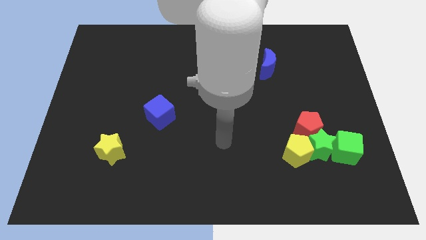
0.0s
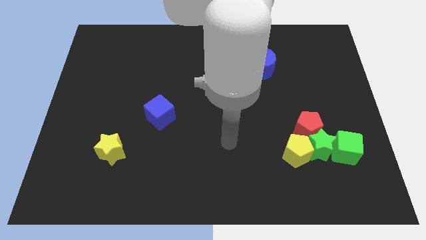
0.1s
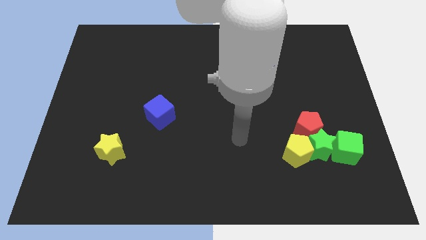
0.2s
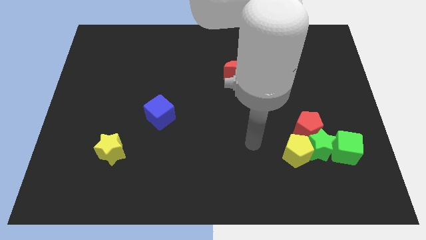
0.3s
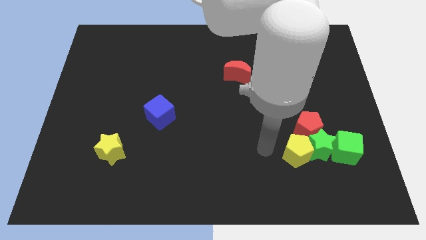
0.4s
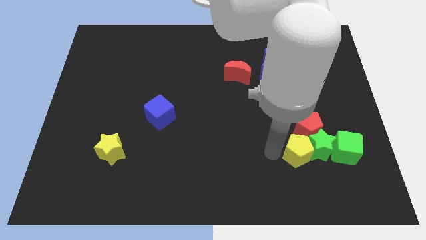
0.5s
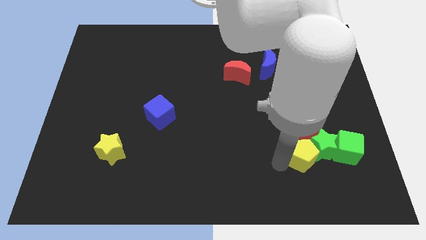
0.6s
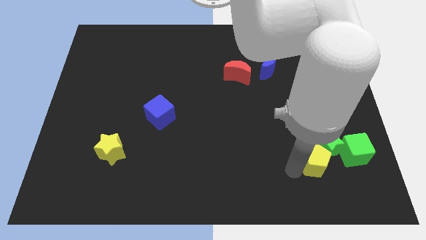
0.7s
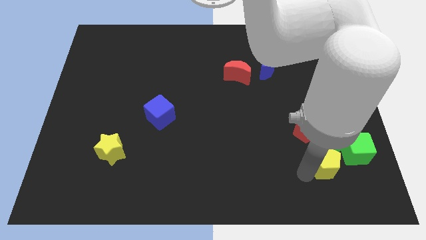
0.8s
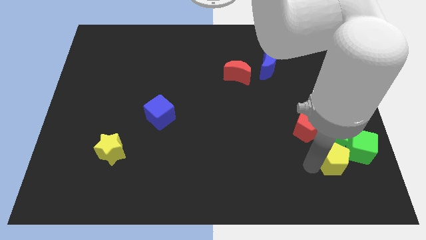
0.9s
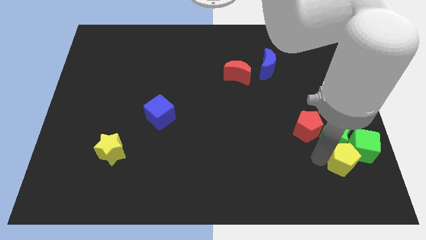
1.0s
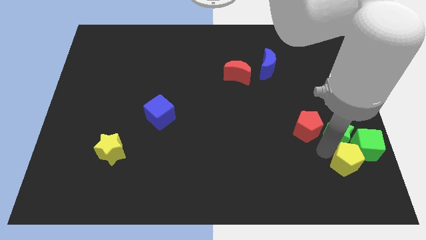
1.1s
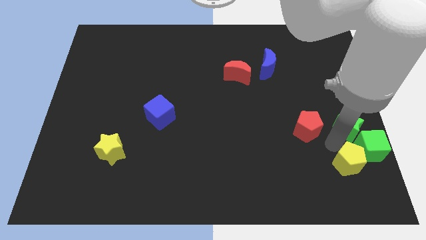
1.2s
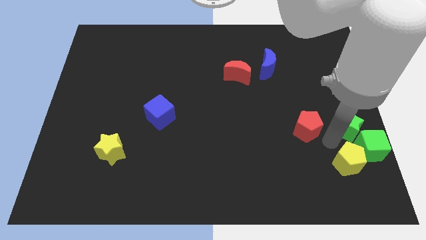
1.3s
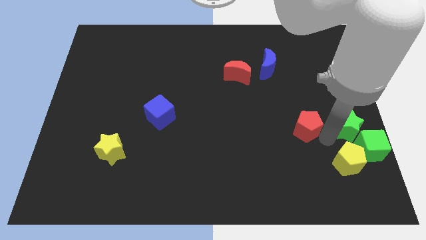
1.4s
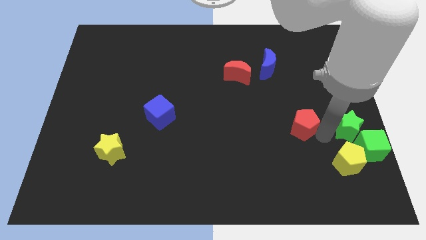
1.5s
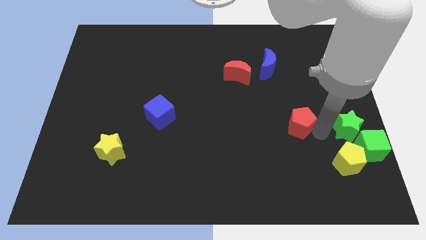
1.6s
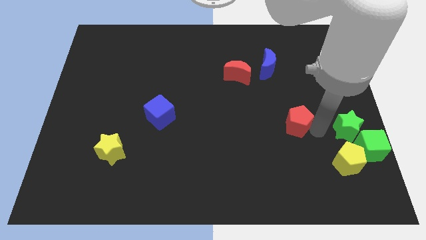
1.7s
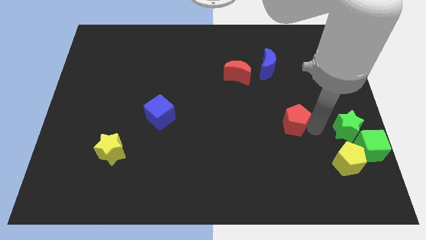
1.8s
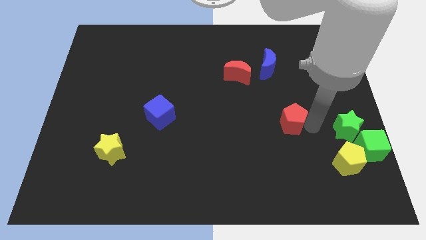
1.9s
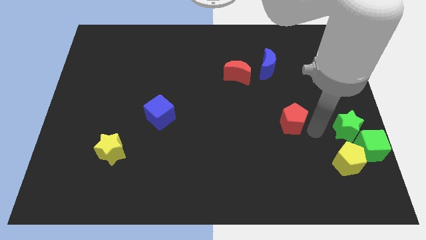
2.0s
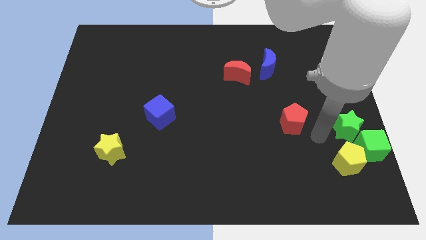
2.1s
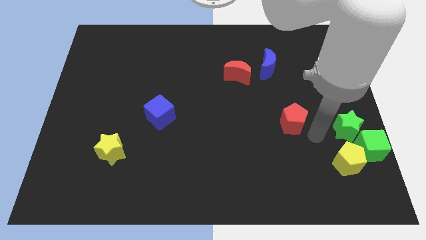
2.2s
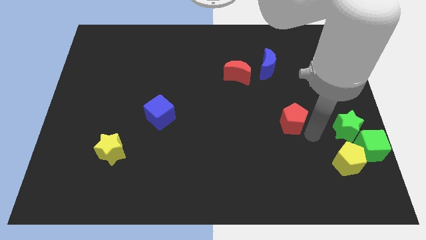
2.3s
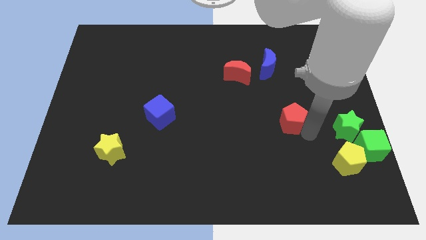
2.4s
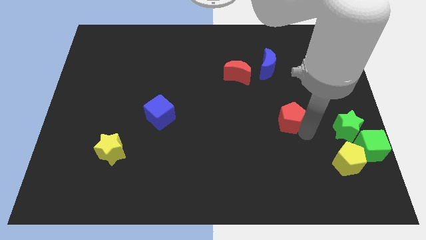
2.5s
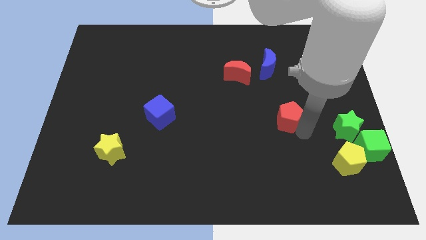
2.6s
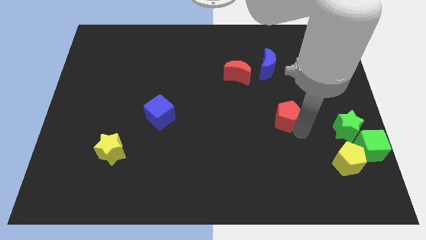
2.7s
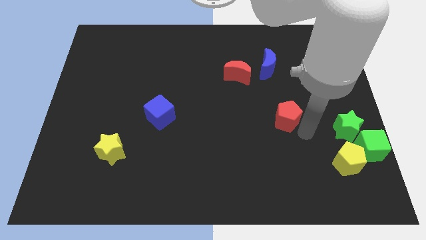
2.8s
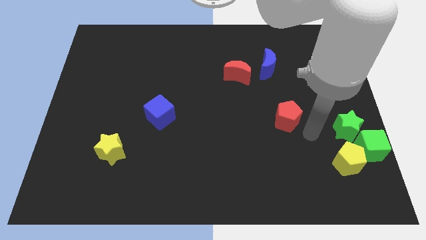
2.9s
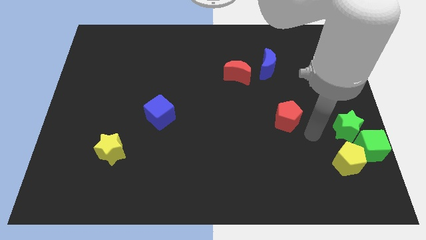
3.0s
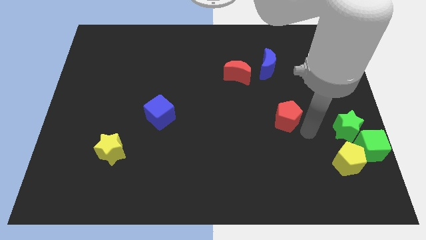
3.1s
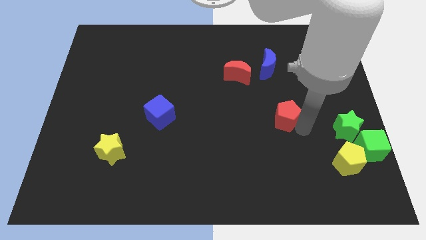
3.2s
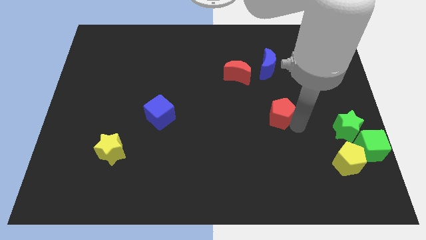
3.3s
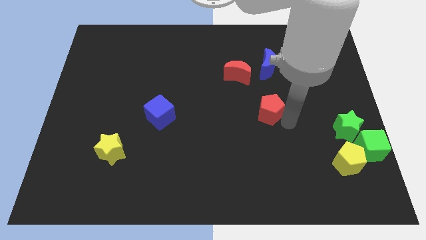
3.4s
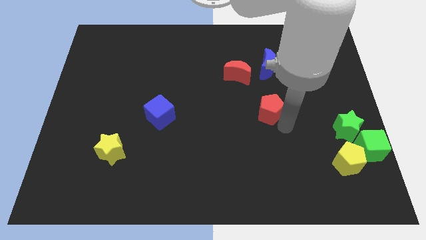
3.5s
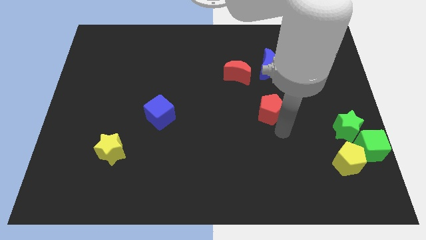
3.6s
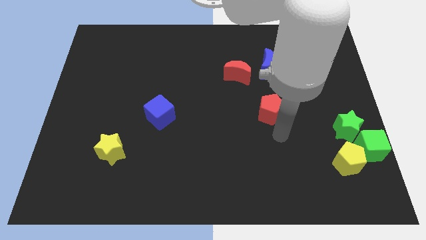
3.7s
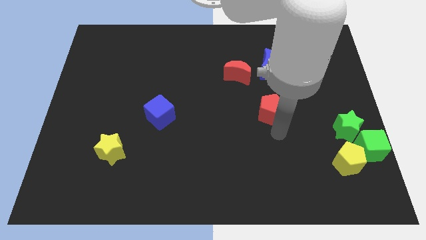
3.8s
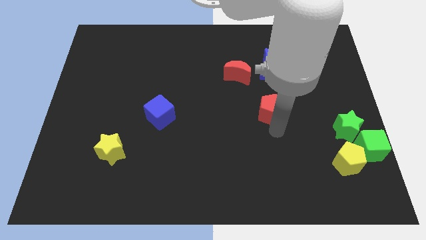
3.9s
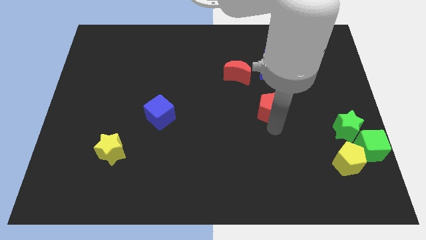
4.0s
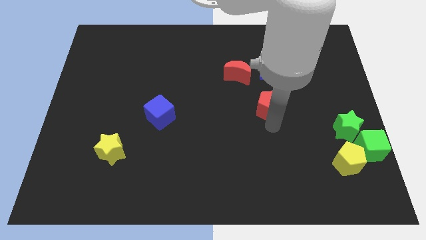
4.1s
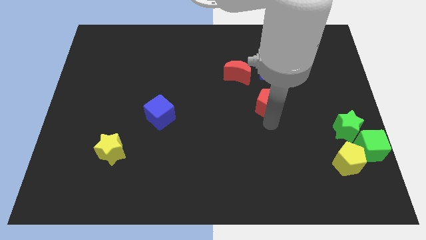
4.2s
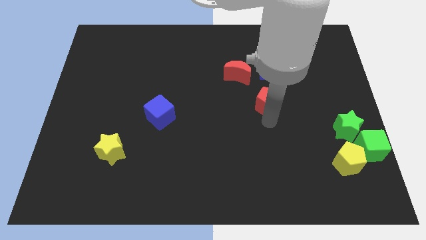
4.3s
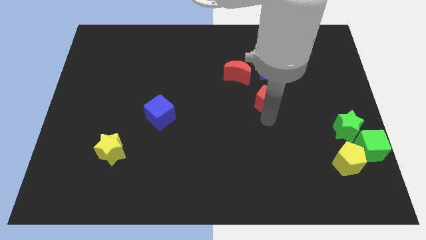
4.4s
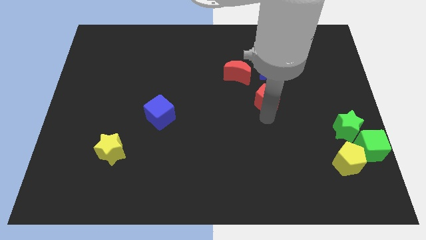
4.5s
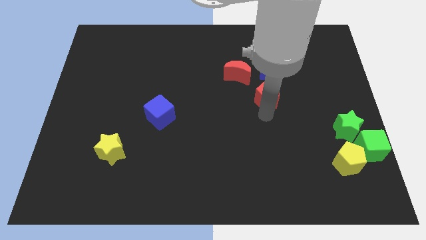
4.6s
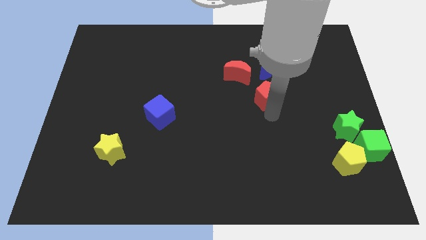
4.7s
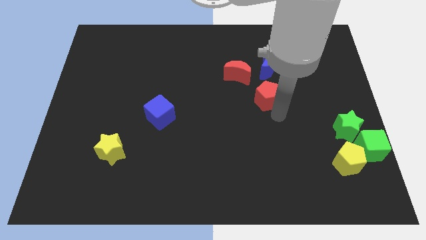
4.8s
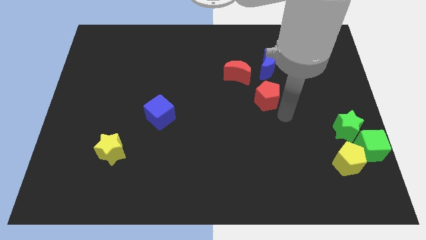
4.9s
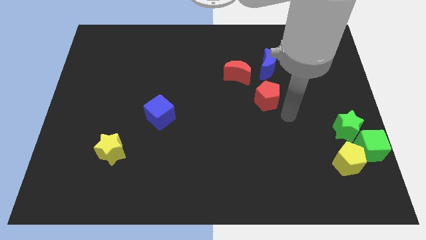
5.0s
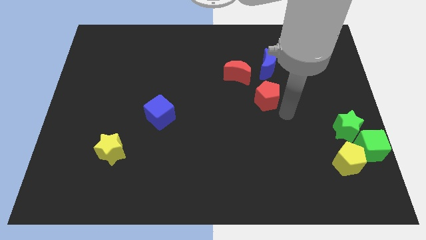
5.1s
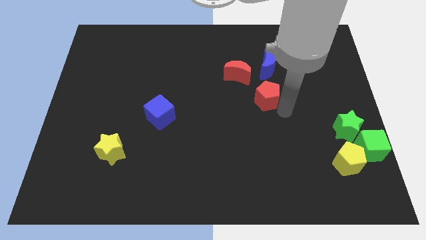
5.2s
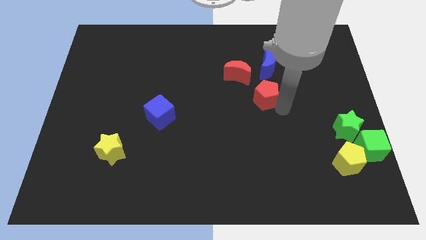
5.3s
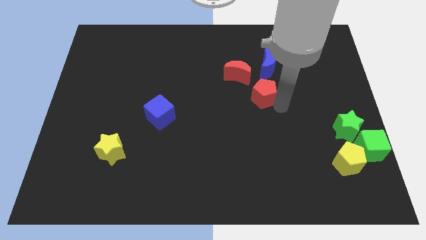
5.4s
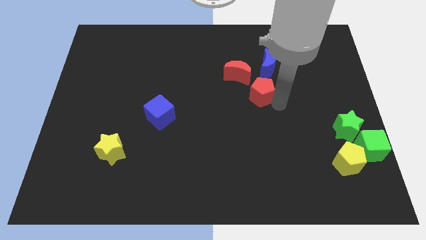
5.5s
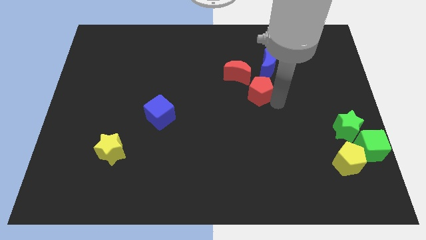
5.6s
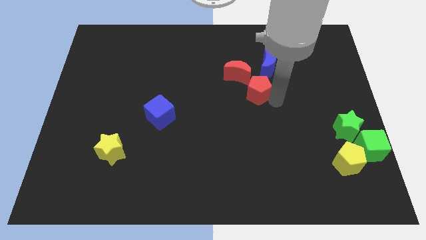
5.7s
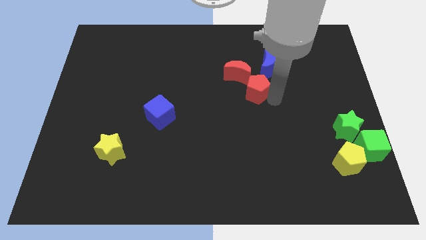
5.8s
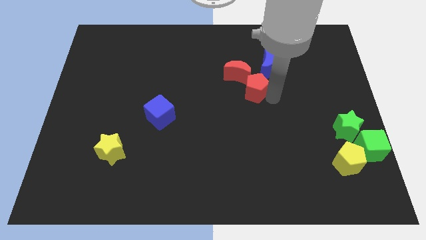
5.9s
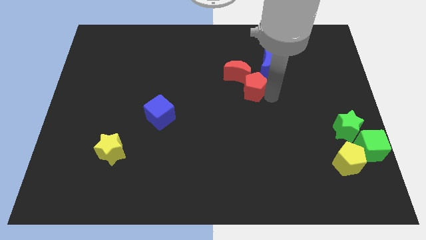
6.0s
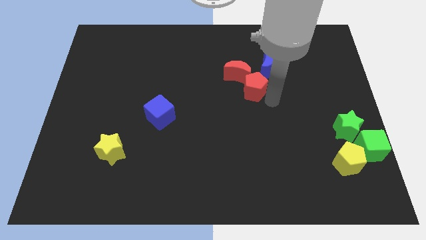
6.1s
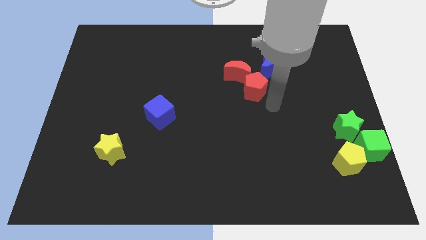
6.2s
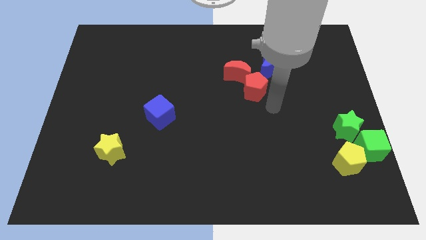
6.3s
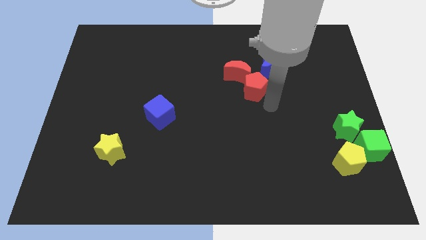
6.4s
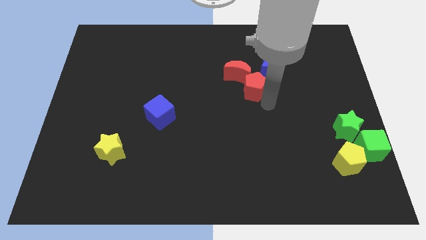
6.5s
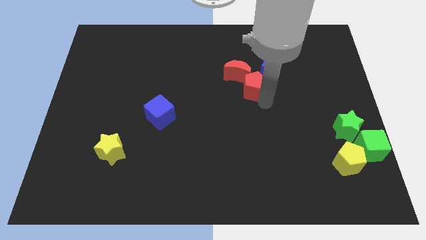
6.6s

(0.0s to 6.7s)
slide the red pentagon to the red moon

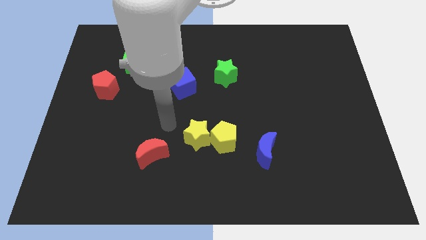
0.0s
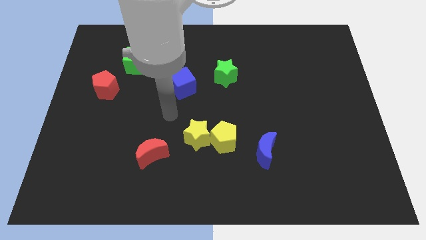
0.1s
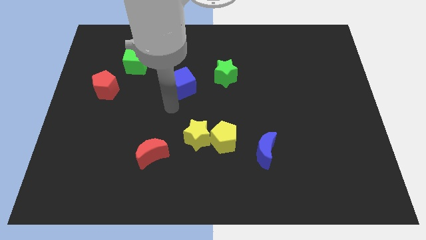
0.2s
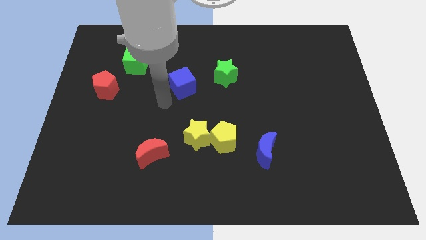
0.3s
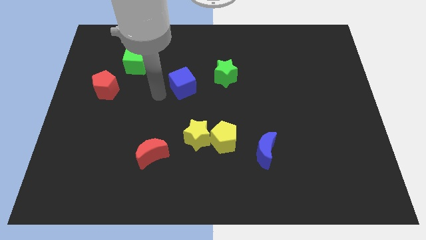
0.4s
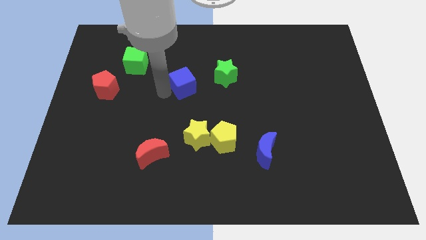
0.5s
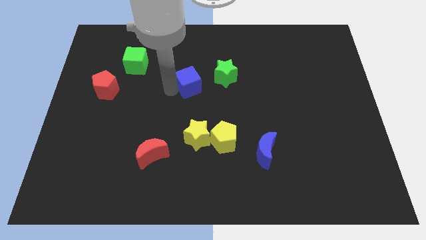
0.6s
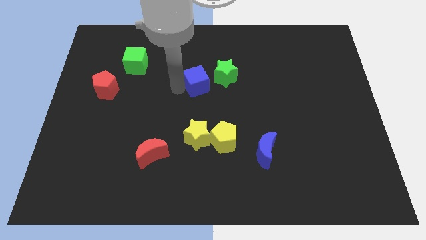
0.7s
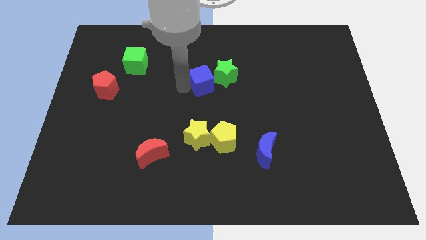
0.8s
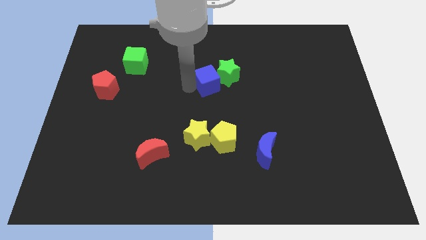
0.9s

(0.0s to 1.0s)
move the blue cube to the green star

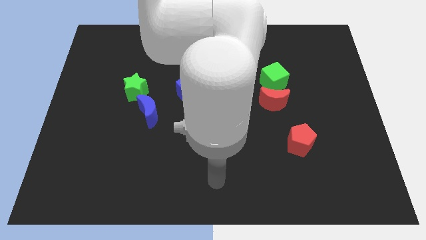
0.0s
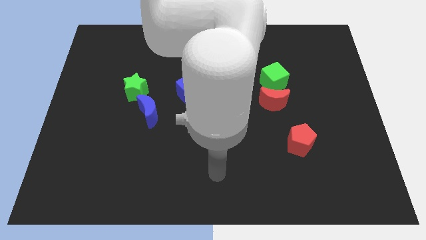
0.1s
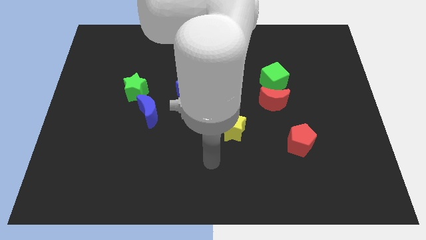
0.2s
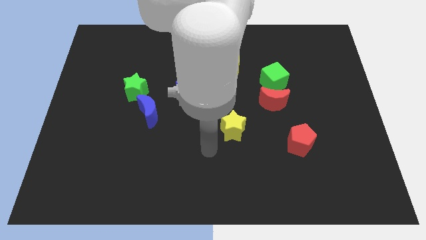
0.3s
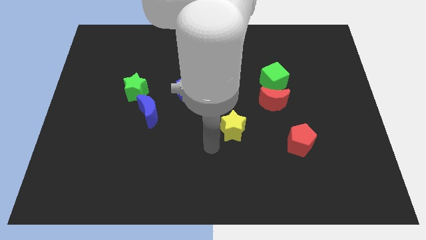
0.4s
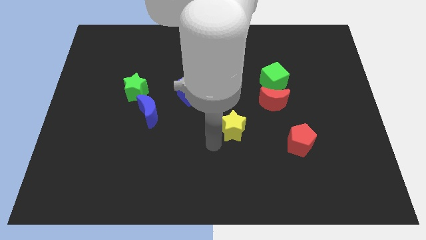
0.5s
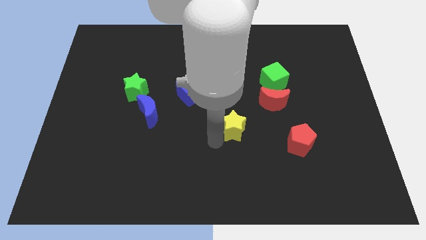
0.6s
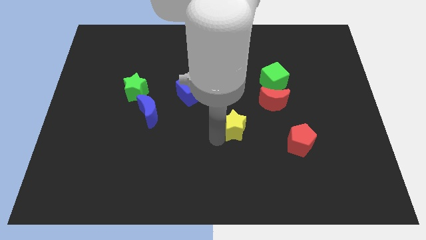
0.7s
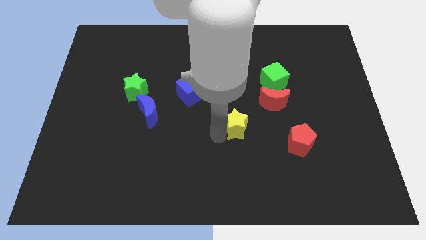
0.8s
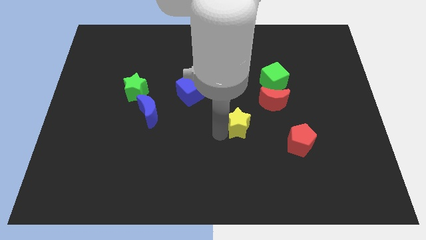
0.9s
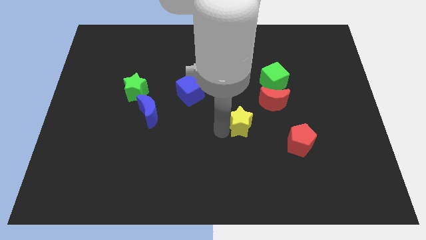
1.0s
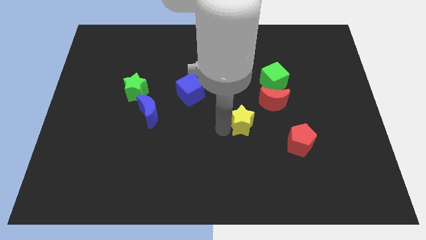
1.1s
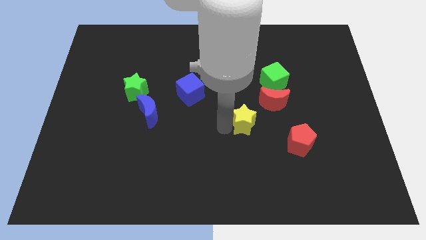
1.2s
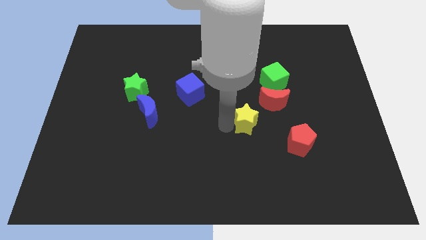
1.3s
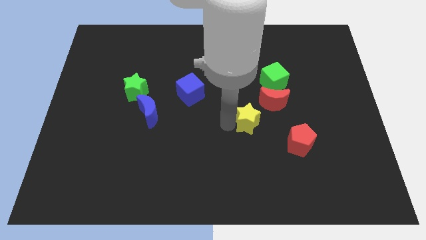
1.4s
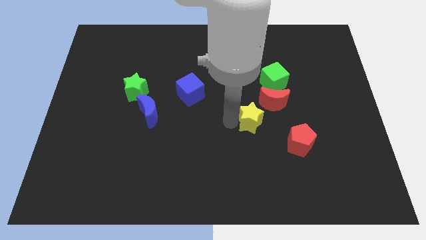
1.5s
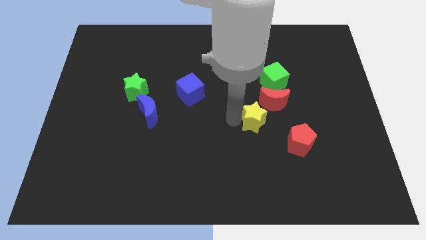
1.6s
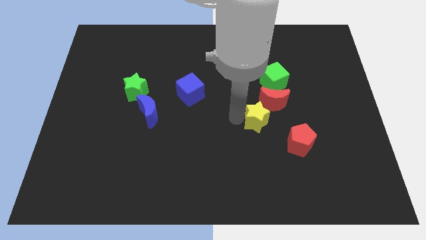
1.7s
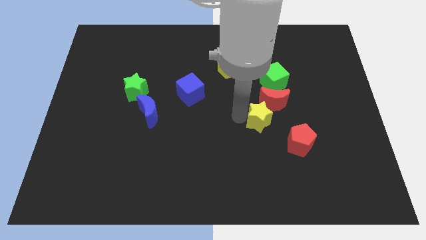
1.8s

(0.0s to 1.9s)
slide the yellow star close to the red moon
